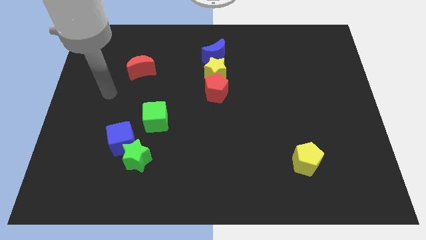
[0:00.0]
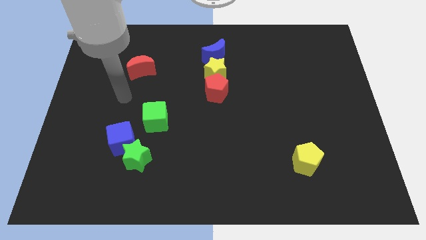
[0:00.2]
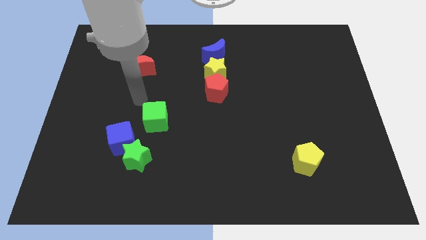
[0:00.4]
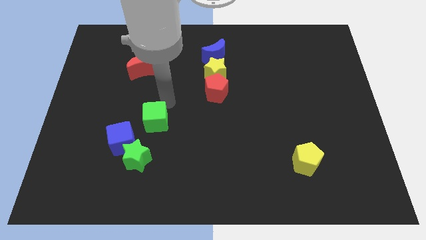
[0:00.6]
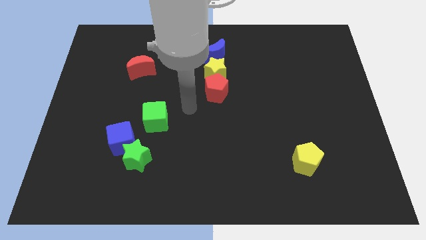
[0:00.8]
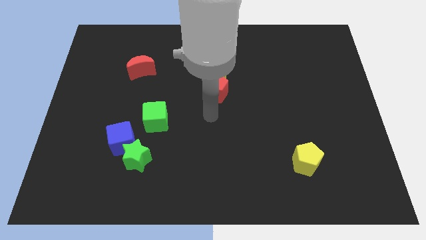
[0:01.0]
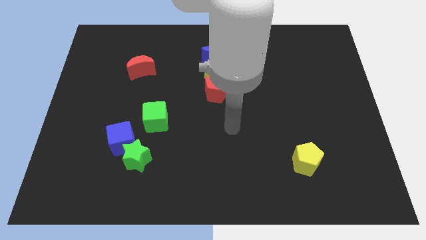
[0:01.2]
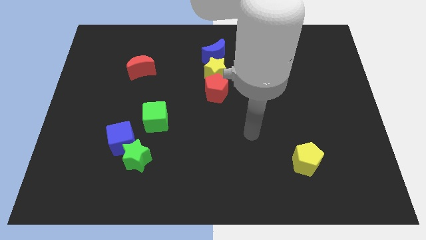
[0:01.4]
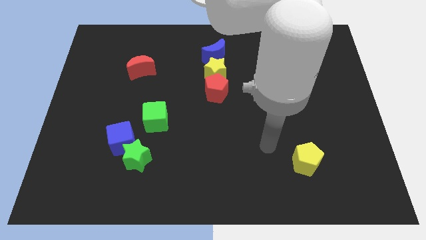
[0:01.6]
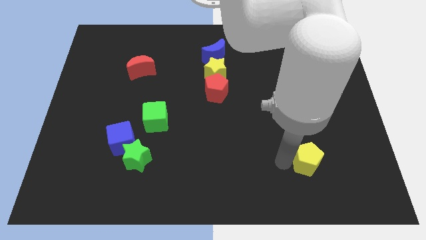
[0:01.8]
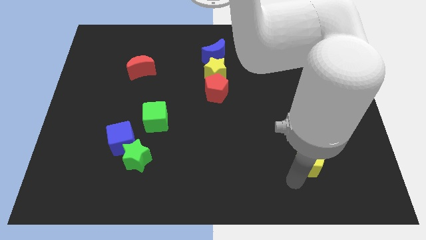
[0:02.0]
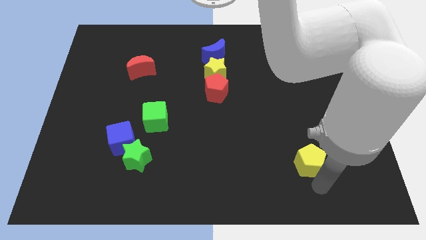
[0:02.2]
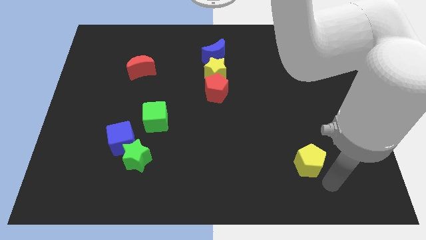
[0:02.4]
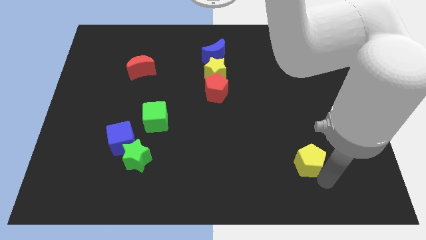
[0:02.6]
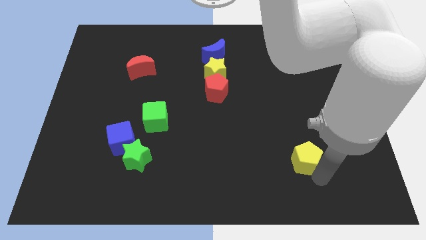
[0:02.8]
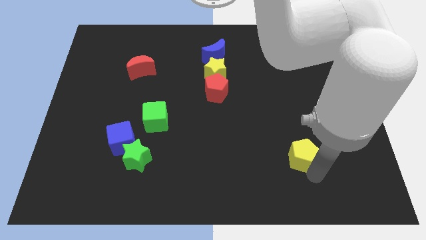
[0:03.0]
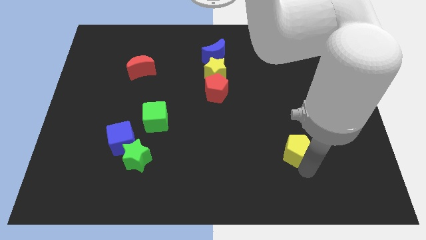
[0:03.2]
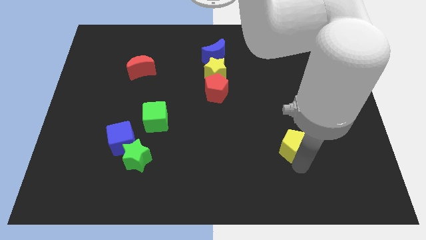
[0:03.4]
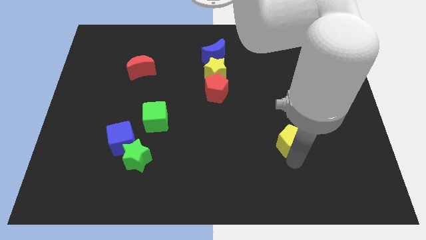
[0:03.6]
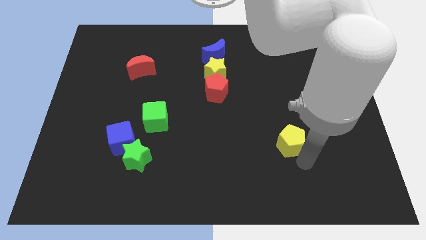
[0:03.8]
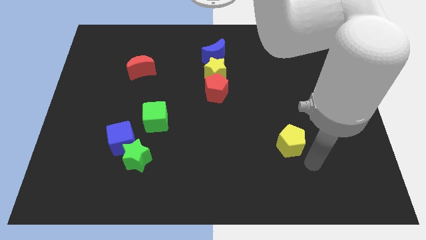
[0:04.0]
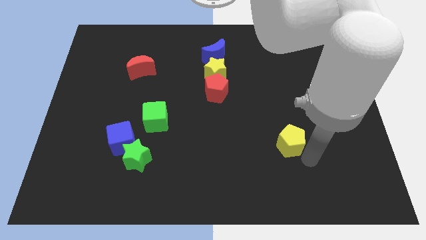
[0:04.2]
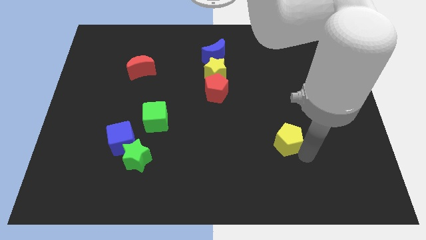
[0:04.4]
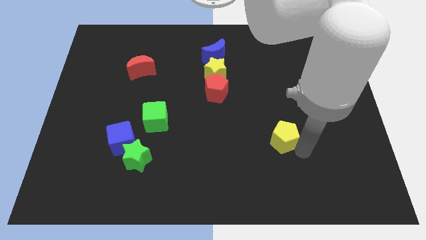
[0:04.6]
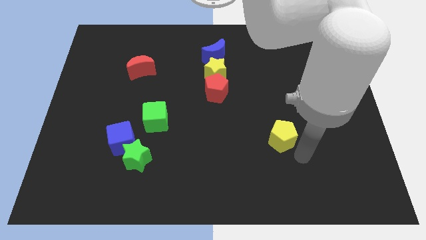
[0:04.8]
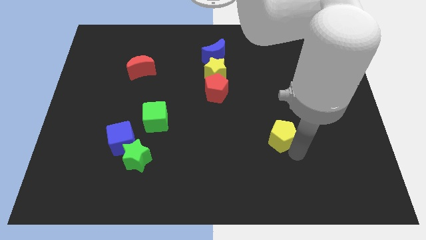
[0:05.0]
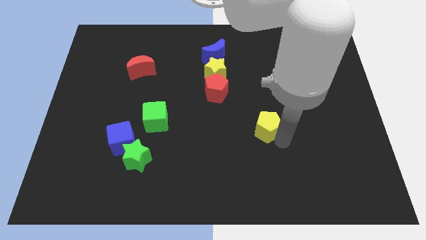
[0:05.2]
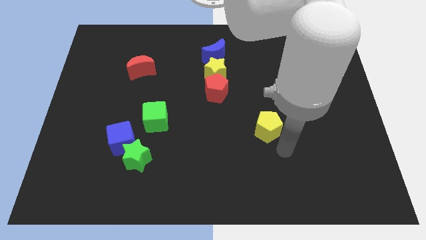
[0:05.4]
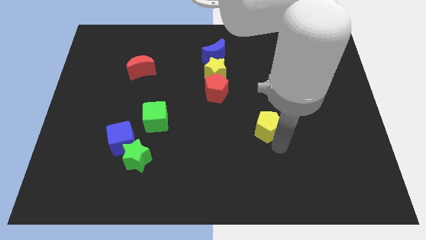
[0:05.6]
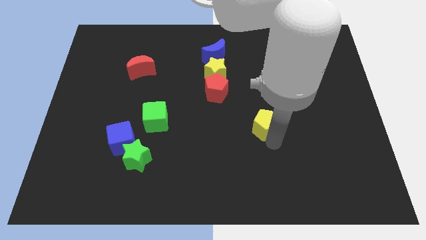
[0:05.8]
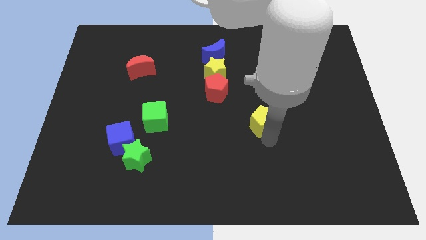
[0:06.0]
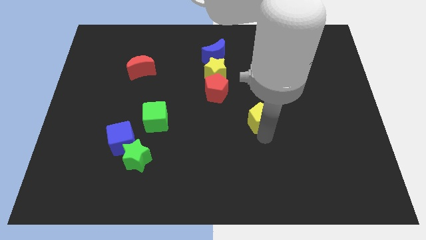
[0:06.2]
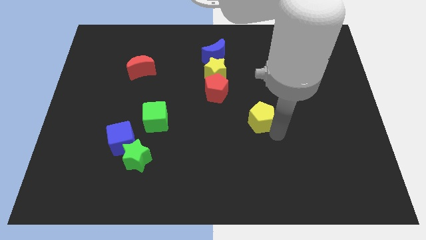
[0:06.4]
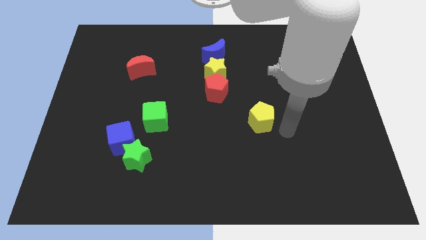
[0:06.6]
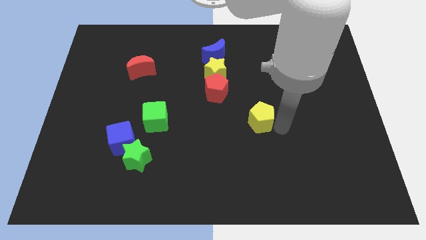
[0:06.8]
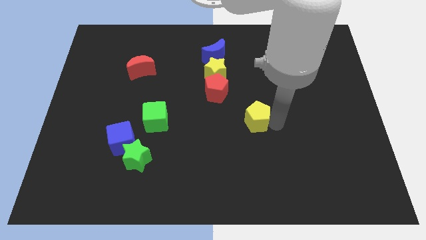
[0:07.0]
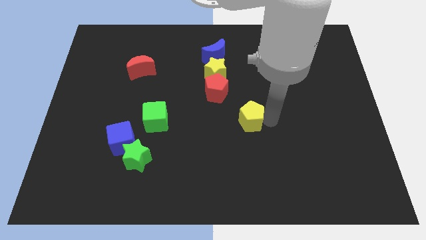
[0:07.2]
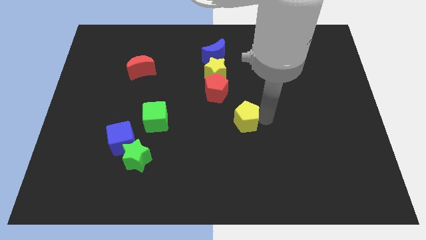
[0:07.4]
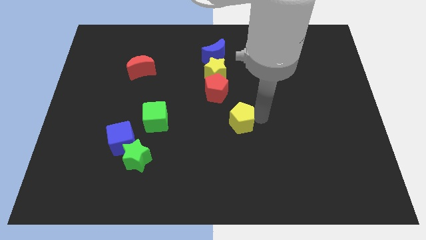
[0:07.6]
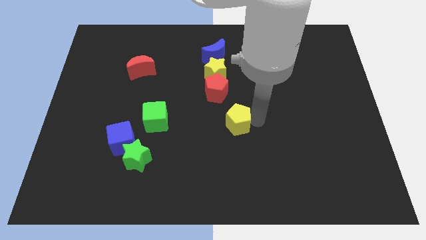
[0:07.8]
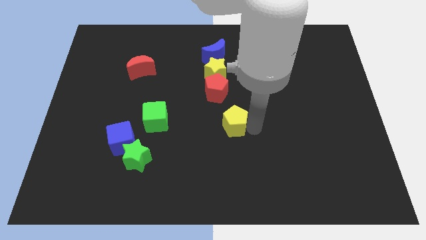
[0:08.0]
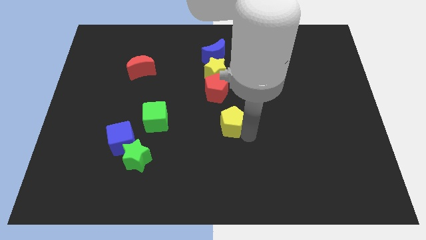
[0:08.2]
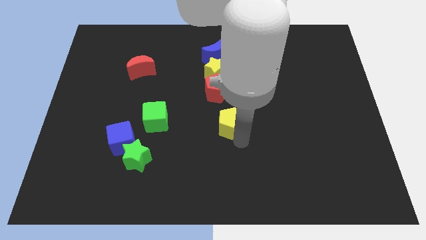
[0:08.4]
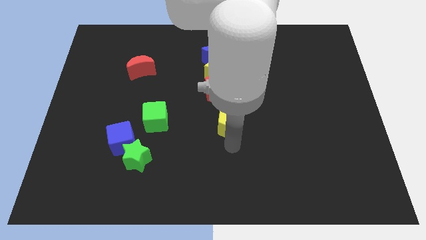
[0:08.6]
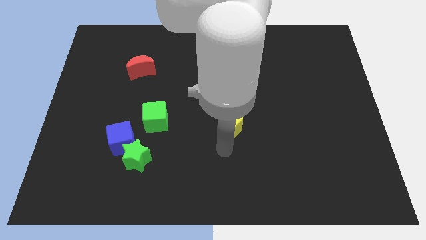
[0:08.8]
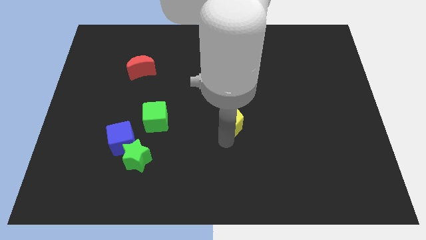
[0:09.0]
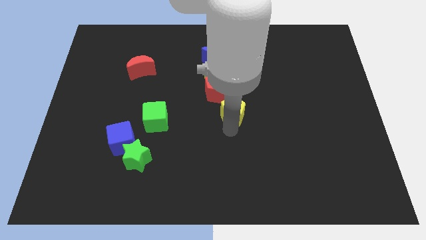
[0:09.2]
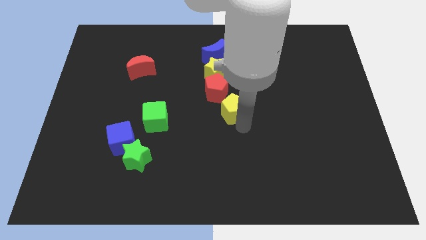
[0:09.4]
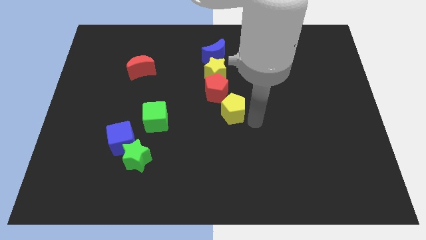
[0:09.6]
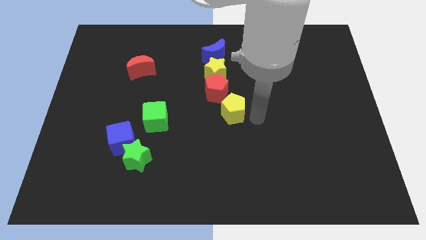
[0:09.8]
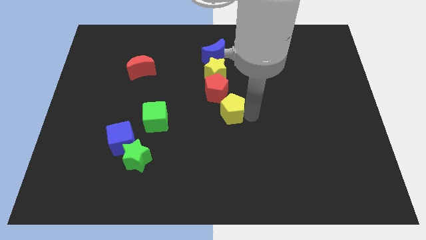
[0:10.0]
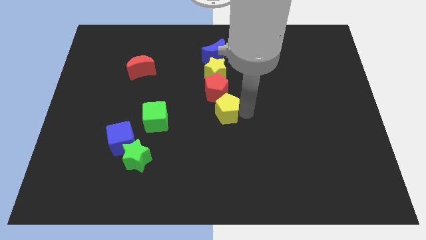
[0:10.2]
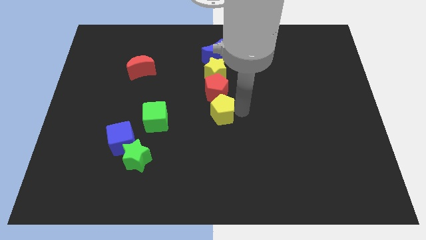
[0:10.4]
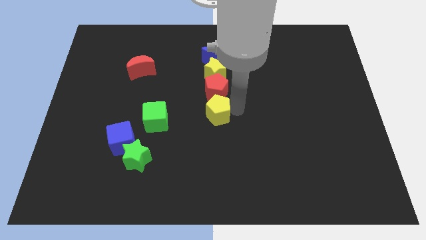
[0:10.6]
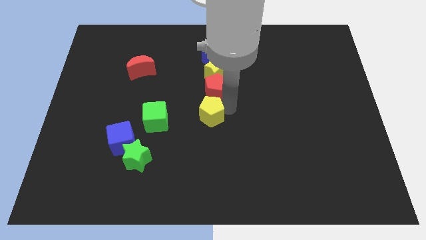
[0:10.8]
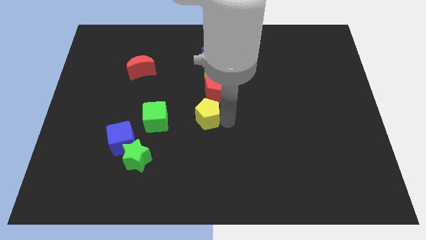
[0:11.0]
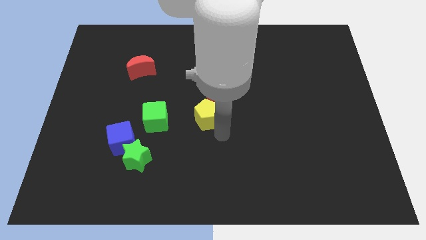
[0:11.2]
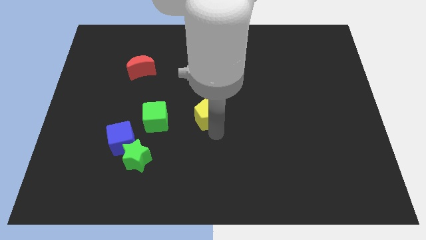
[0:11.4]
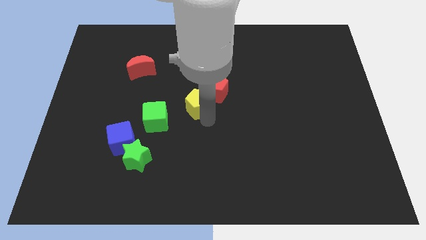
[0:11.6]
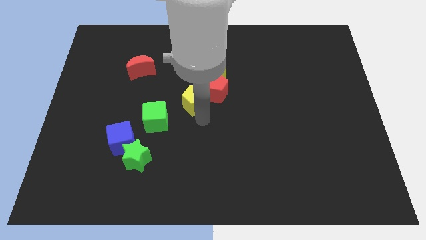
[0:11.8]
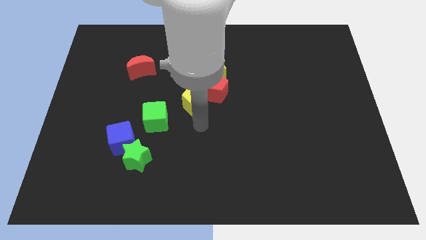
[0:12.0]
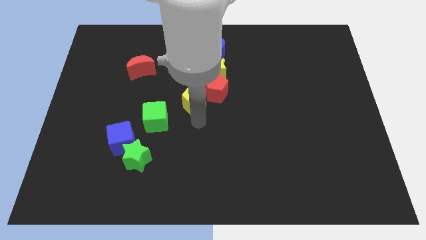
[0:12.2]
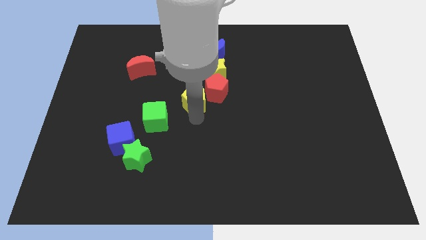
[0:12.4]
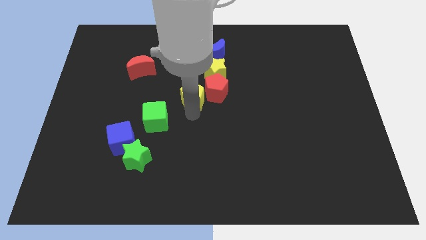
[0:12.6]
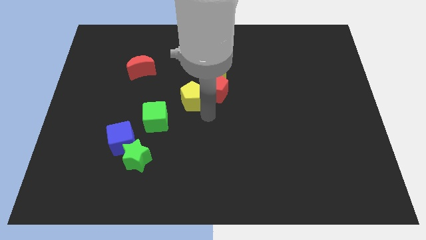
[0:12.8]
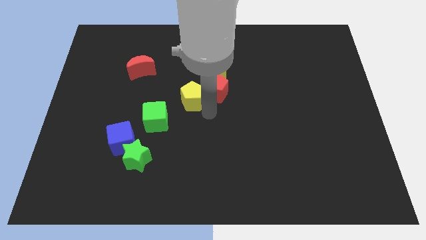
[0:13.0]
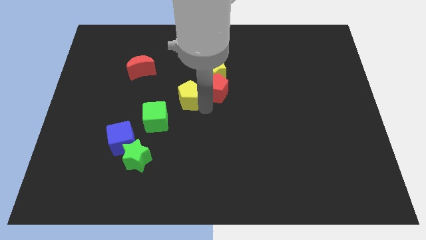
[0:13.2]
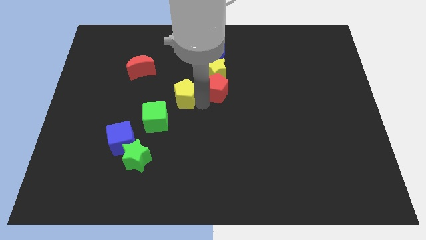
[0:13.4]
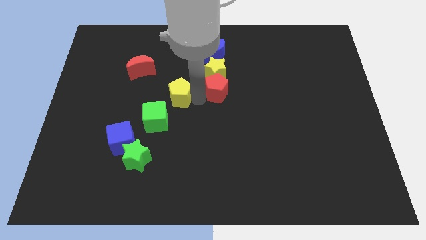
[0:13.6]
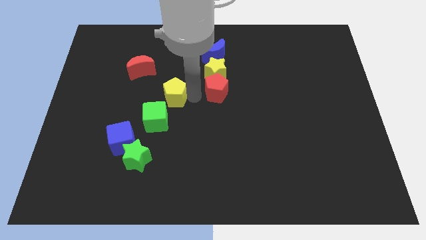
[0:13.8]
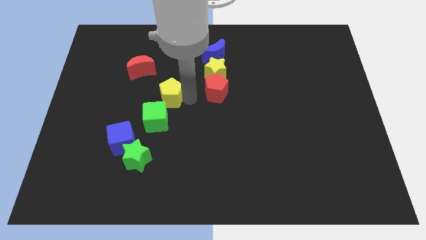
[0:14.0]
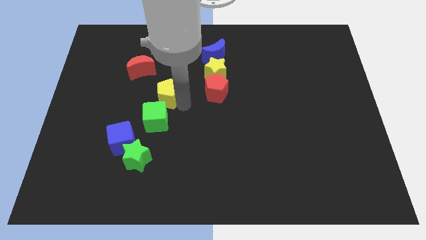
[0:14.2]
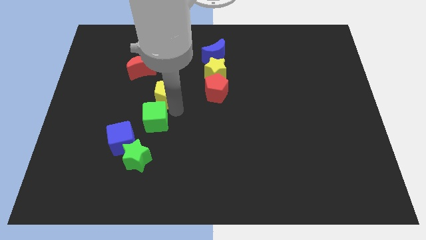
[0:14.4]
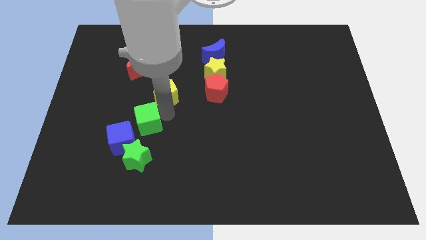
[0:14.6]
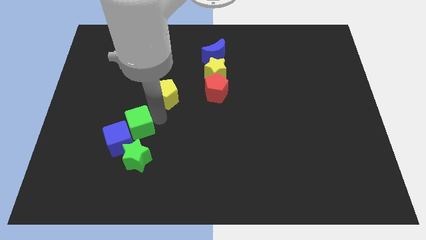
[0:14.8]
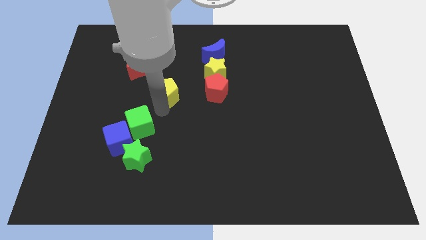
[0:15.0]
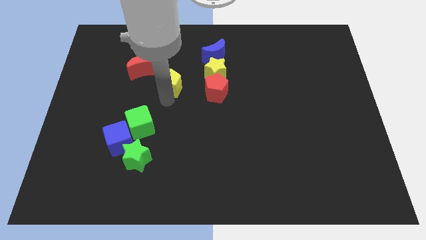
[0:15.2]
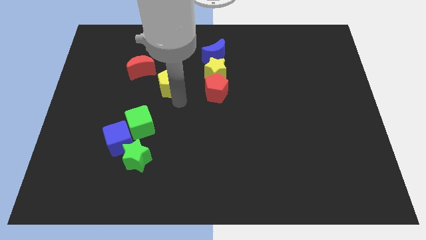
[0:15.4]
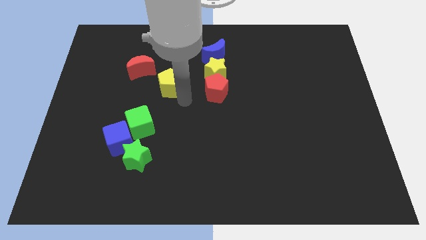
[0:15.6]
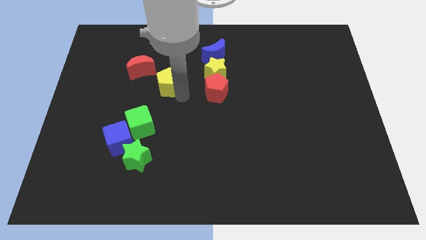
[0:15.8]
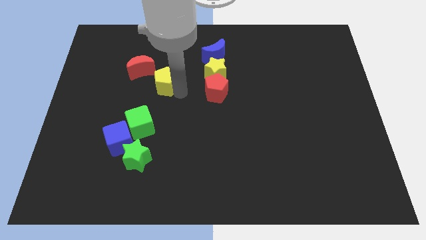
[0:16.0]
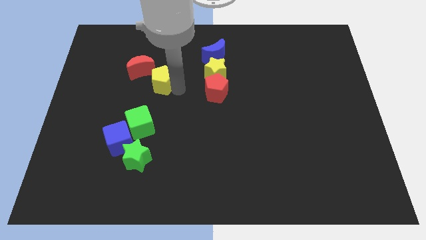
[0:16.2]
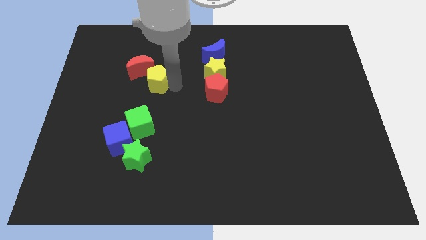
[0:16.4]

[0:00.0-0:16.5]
slide the yellow pentagon close to the red moon
